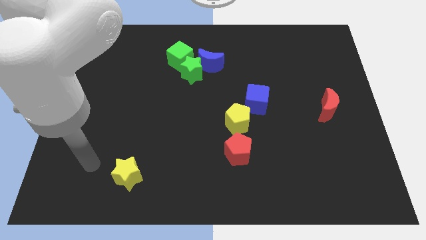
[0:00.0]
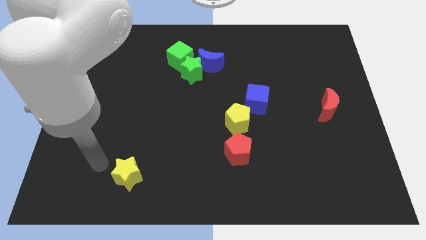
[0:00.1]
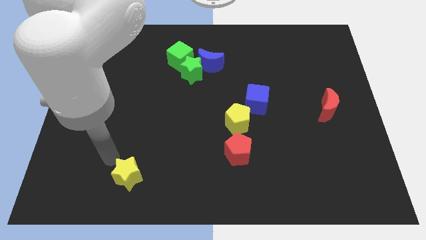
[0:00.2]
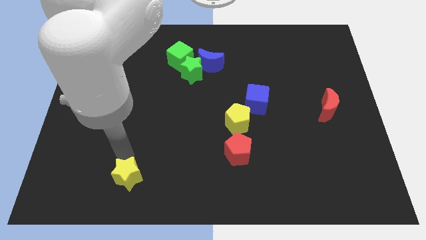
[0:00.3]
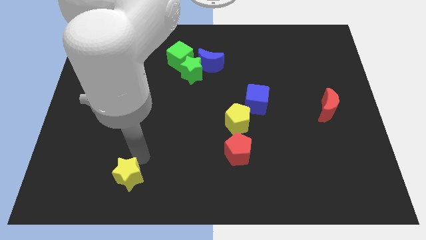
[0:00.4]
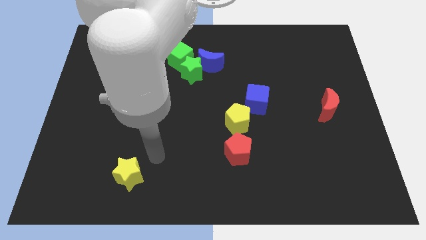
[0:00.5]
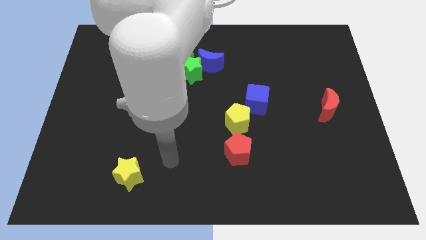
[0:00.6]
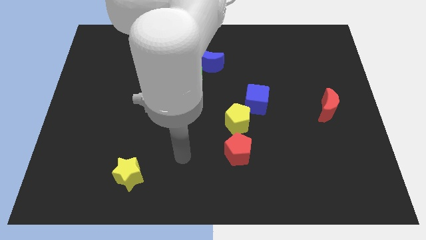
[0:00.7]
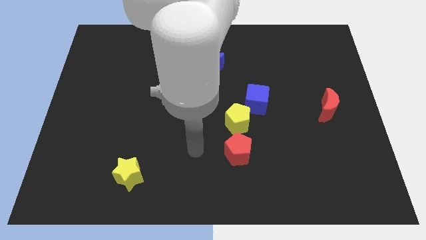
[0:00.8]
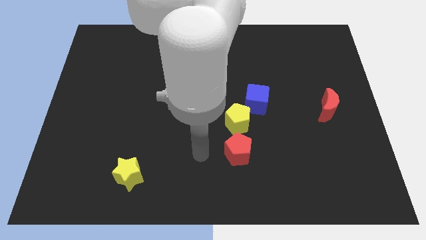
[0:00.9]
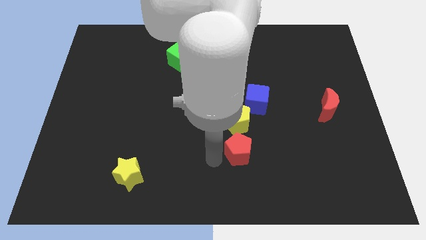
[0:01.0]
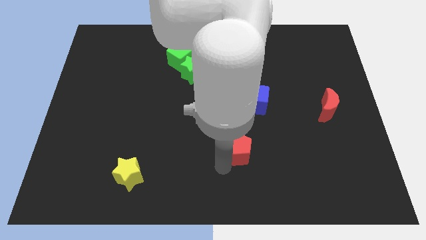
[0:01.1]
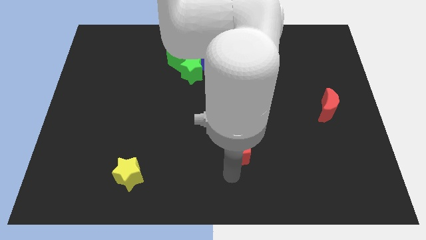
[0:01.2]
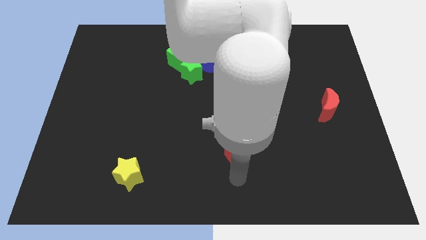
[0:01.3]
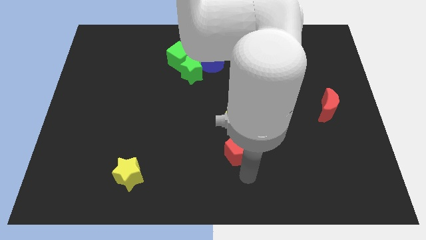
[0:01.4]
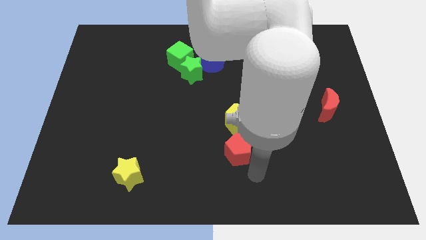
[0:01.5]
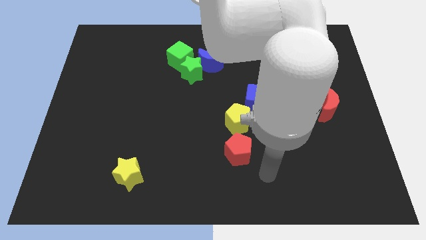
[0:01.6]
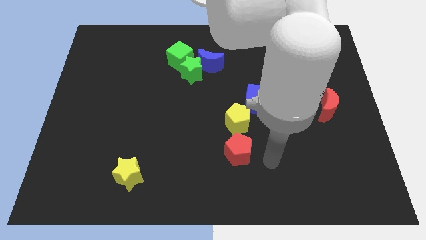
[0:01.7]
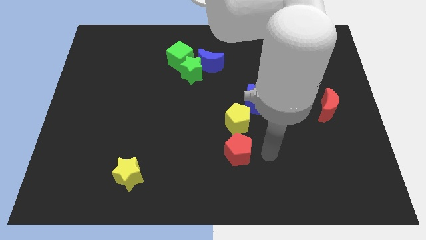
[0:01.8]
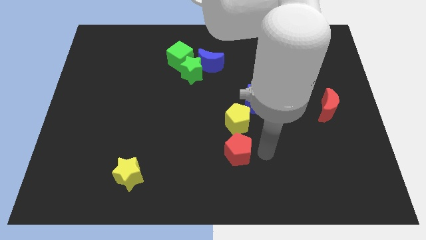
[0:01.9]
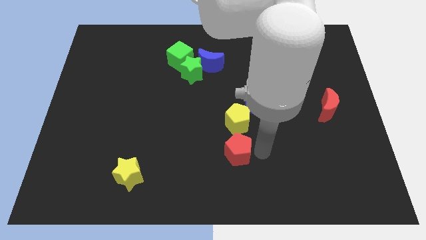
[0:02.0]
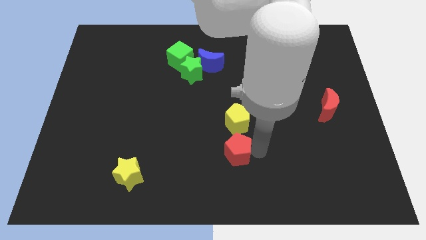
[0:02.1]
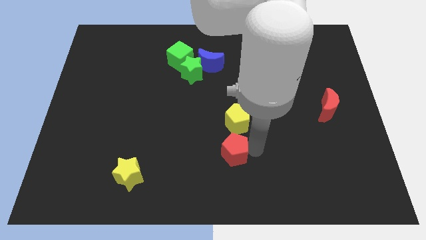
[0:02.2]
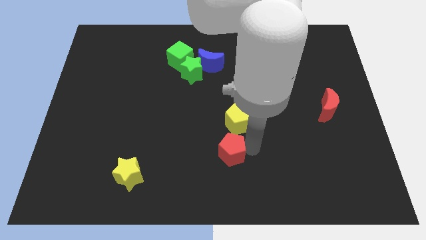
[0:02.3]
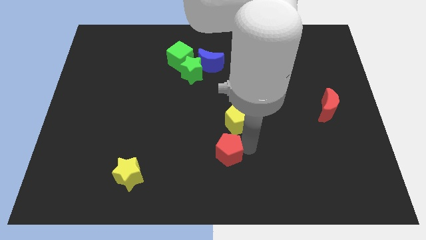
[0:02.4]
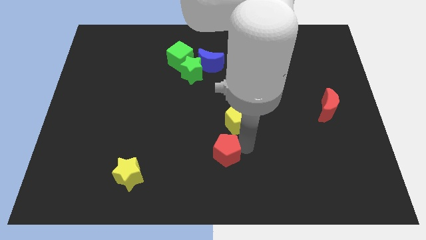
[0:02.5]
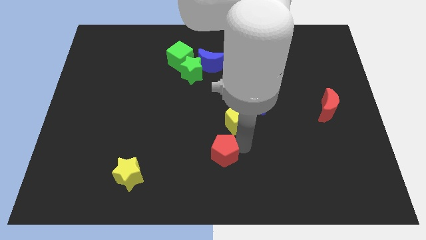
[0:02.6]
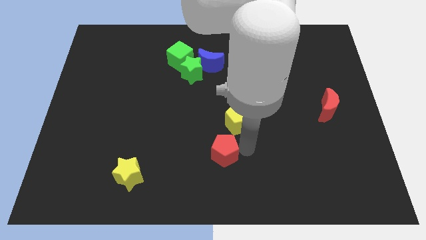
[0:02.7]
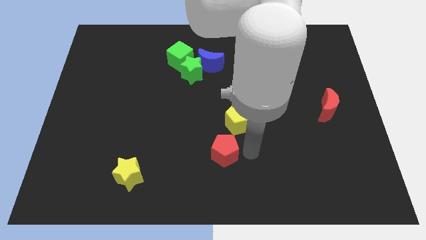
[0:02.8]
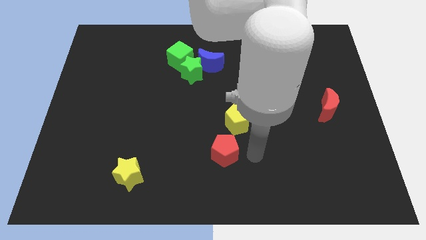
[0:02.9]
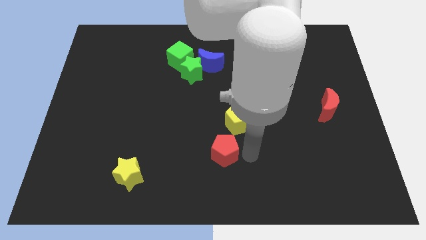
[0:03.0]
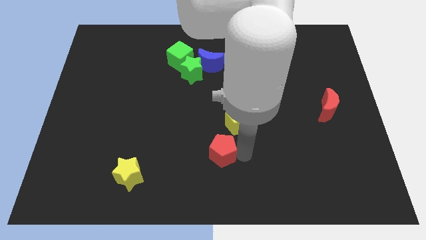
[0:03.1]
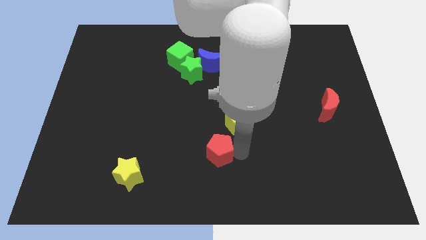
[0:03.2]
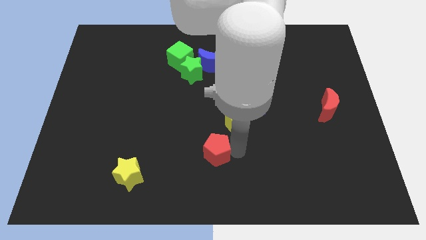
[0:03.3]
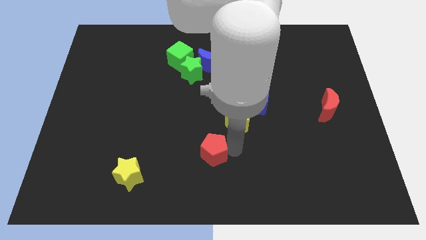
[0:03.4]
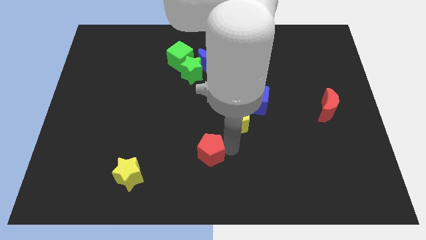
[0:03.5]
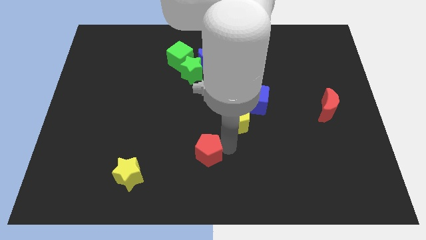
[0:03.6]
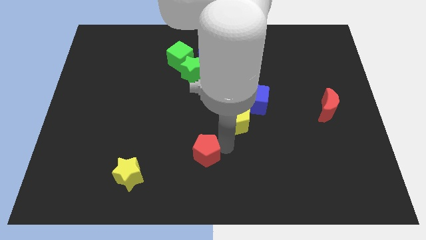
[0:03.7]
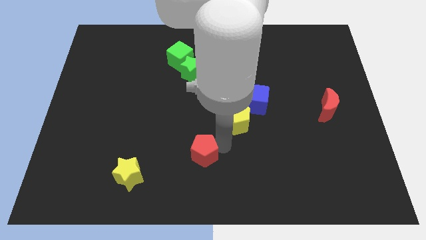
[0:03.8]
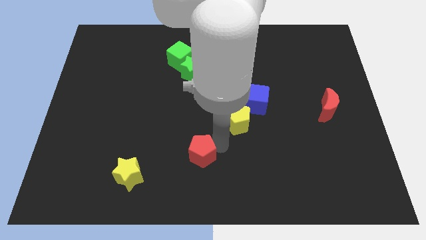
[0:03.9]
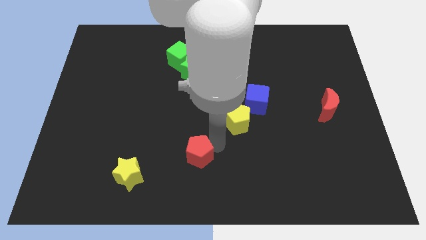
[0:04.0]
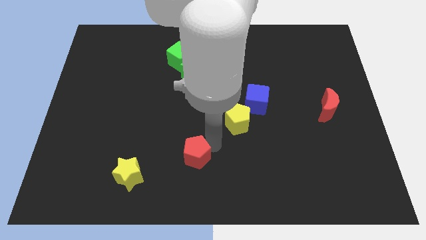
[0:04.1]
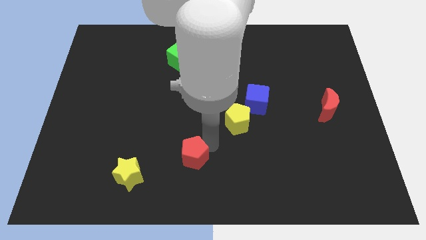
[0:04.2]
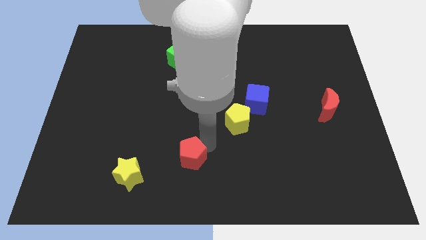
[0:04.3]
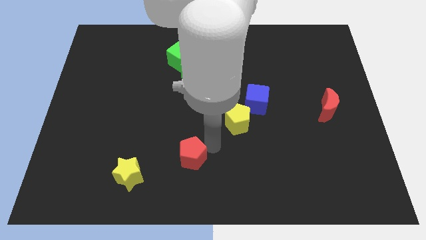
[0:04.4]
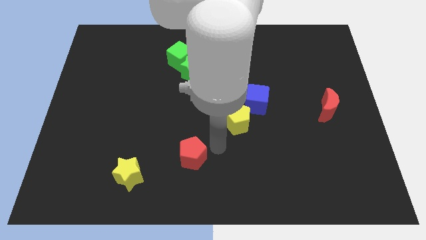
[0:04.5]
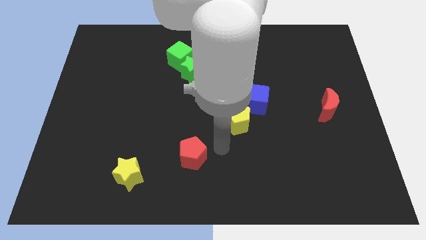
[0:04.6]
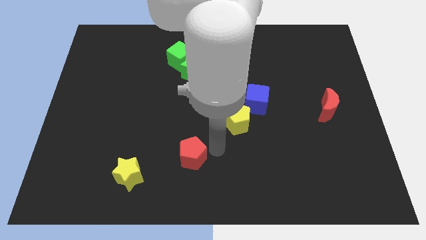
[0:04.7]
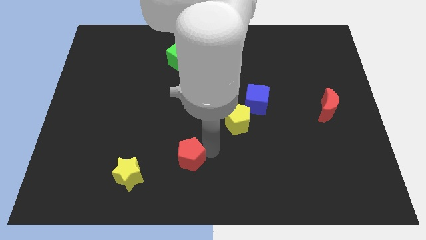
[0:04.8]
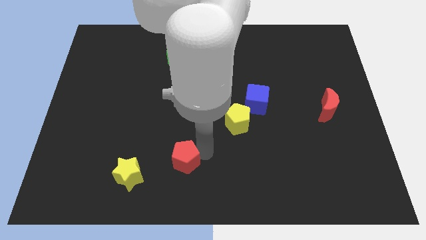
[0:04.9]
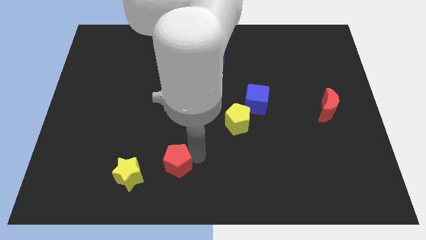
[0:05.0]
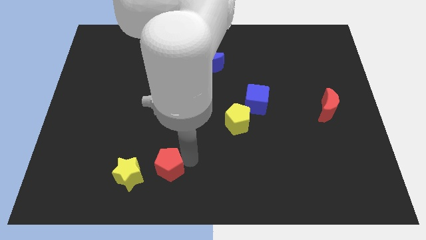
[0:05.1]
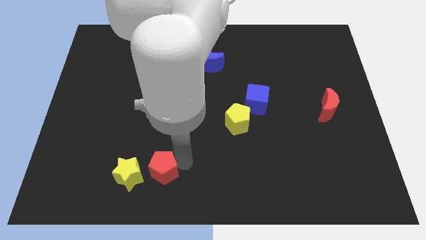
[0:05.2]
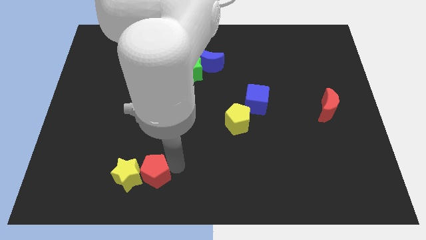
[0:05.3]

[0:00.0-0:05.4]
move the red pentagon close to the yellow star

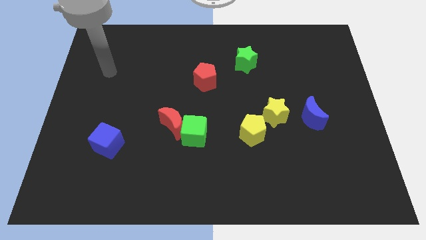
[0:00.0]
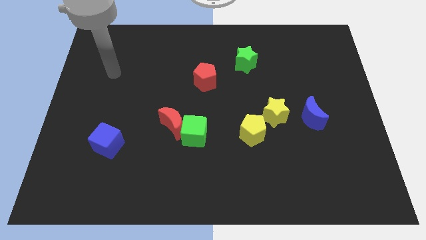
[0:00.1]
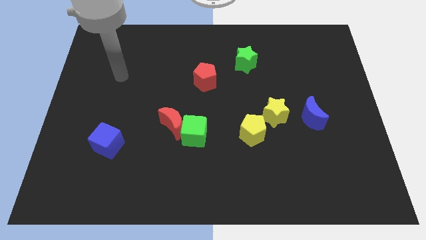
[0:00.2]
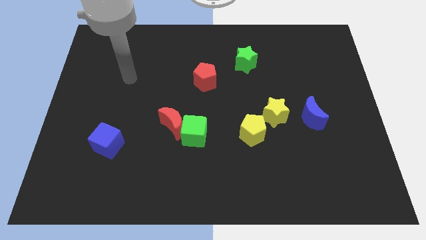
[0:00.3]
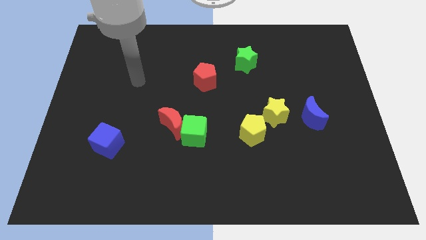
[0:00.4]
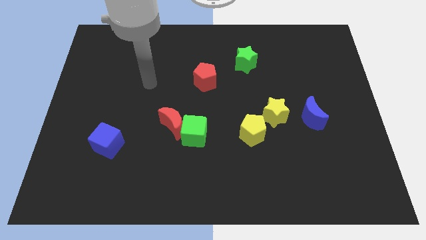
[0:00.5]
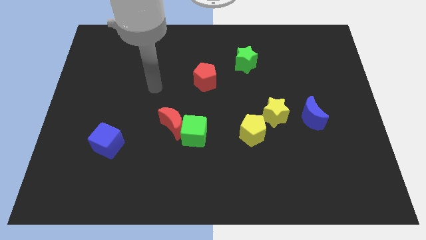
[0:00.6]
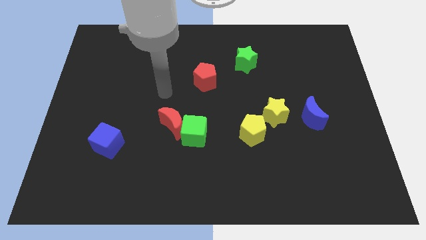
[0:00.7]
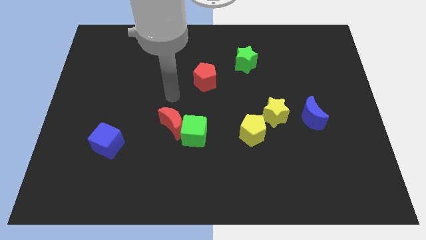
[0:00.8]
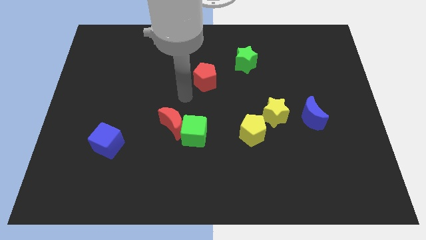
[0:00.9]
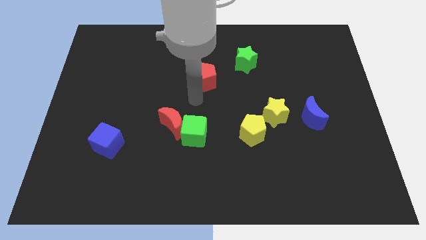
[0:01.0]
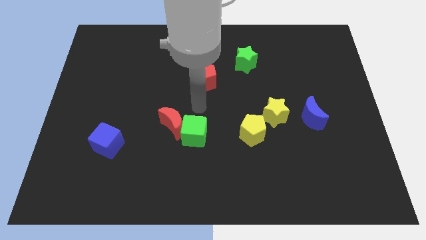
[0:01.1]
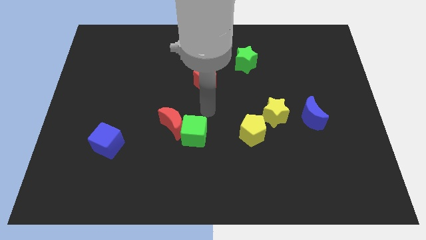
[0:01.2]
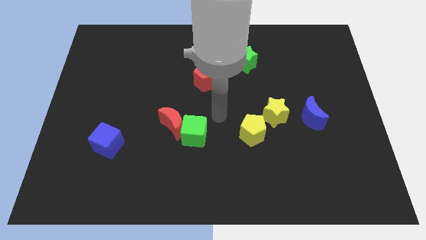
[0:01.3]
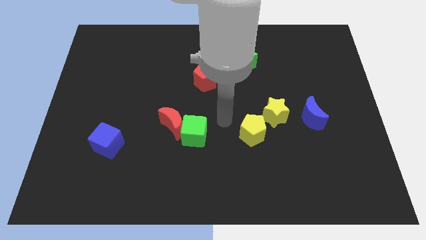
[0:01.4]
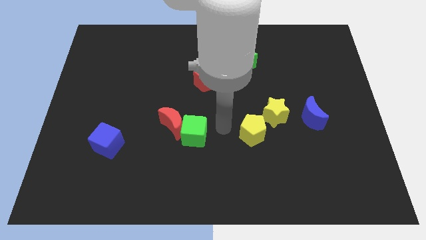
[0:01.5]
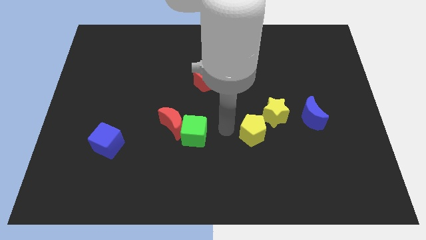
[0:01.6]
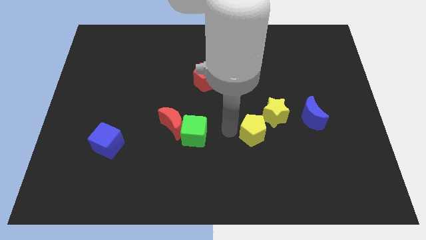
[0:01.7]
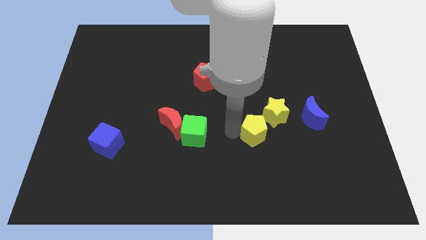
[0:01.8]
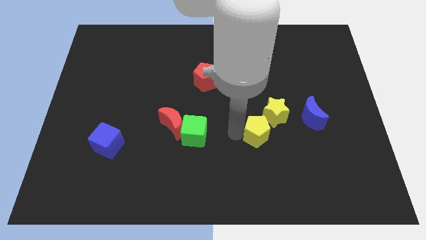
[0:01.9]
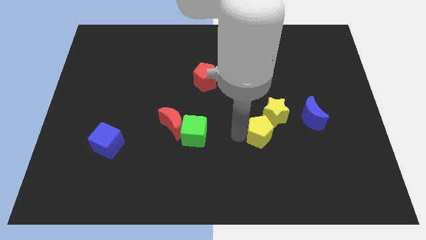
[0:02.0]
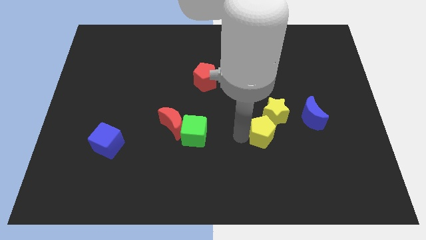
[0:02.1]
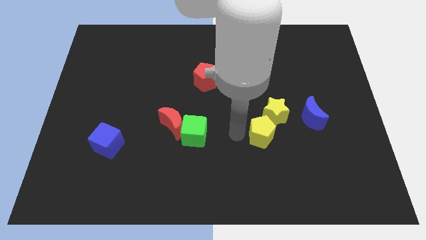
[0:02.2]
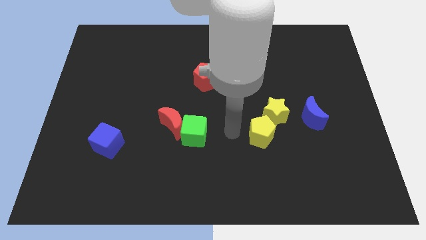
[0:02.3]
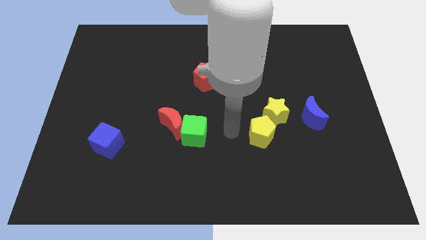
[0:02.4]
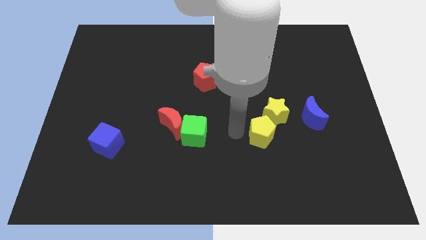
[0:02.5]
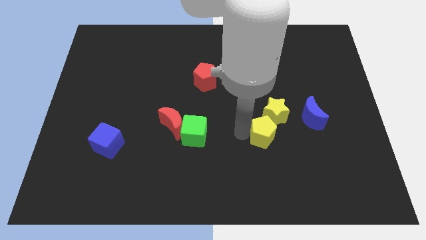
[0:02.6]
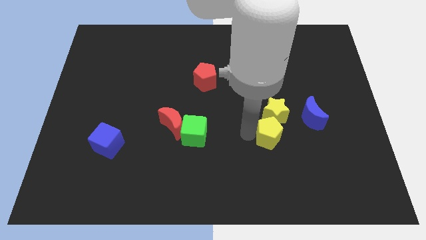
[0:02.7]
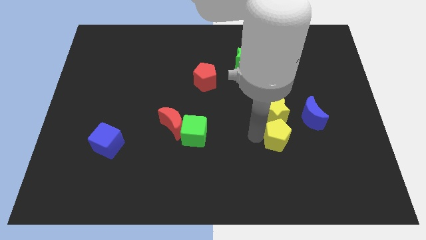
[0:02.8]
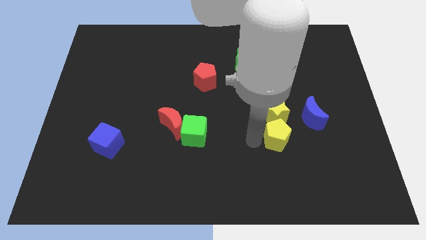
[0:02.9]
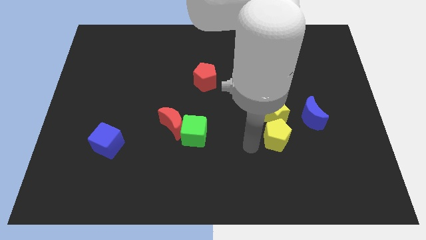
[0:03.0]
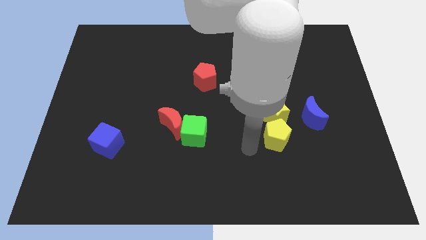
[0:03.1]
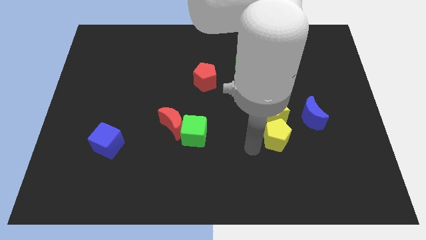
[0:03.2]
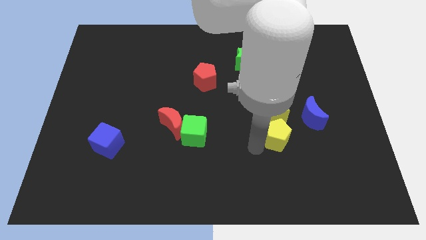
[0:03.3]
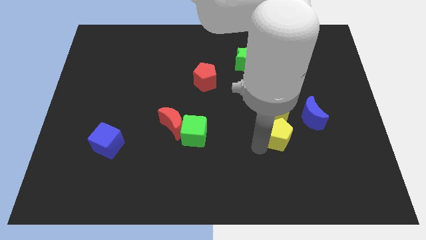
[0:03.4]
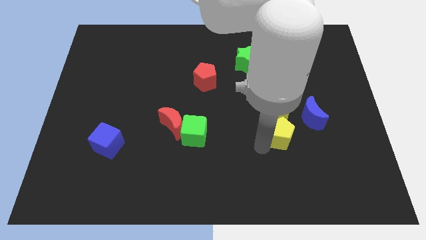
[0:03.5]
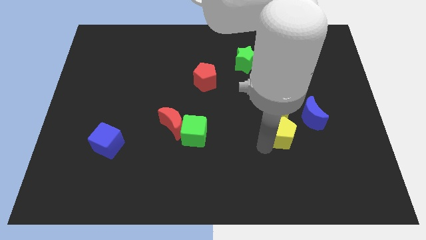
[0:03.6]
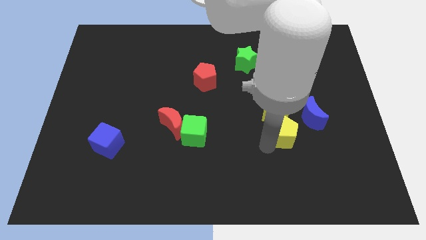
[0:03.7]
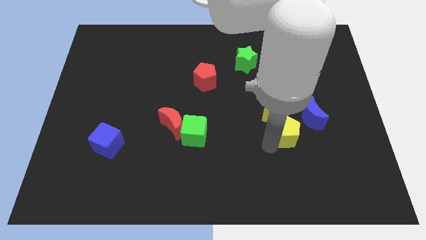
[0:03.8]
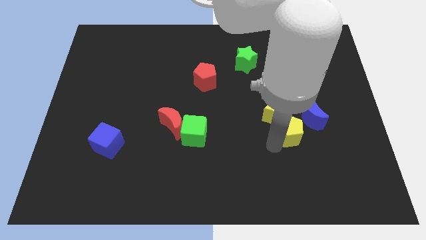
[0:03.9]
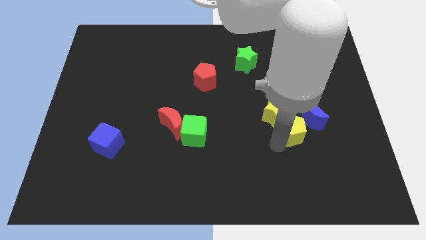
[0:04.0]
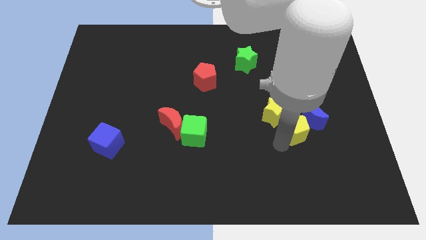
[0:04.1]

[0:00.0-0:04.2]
slide the yellow pentagon towards the blue moon
